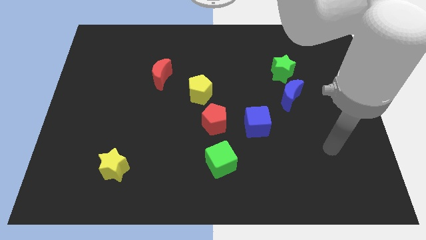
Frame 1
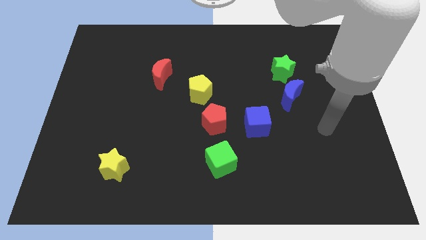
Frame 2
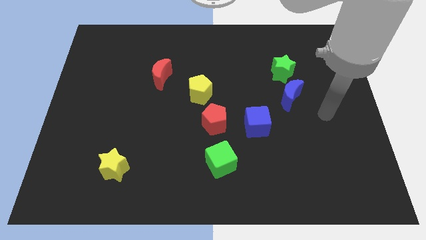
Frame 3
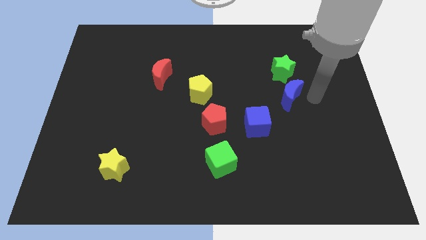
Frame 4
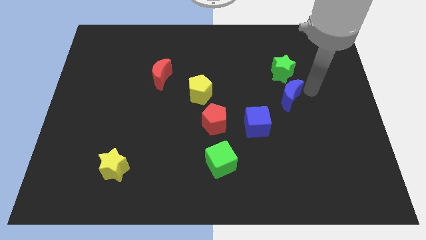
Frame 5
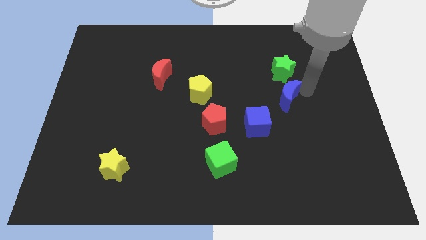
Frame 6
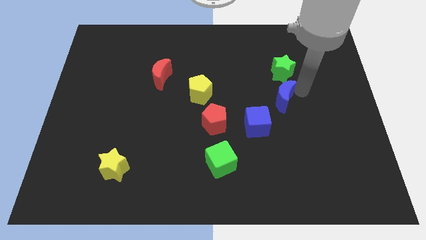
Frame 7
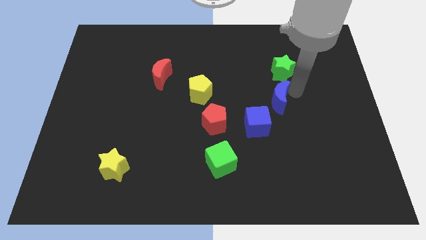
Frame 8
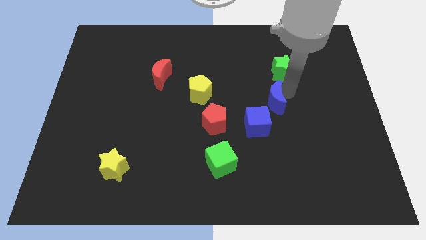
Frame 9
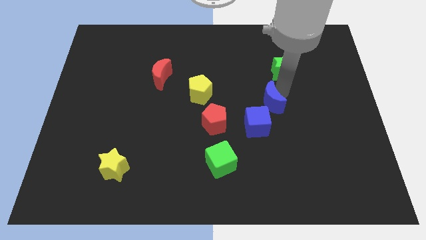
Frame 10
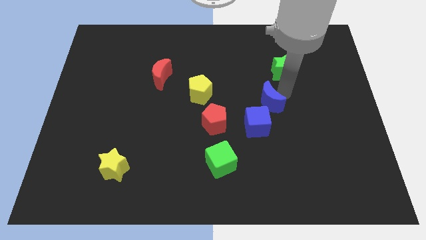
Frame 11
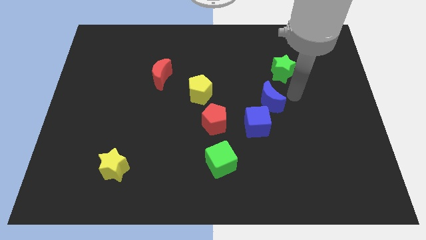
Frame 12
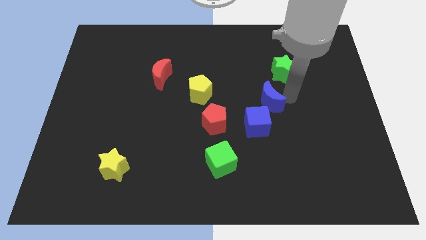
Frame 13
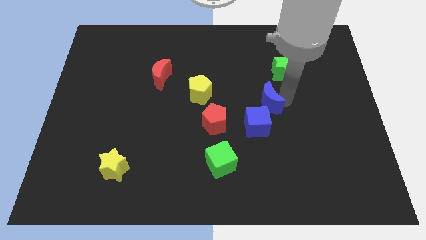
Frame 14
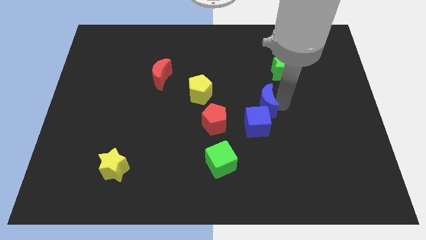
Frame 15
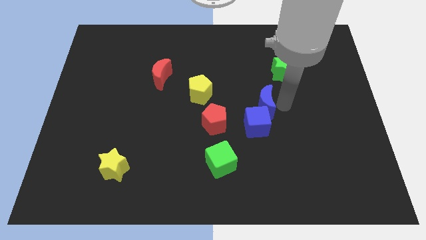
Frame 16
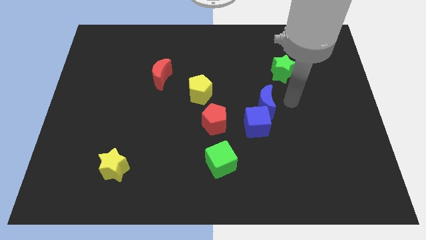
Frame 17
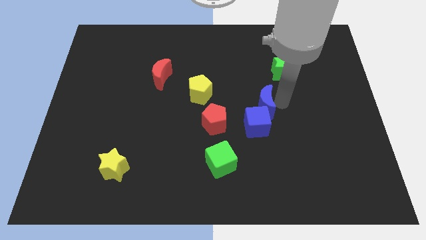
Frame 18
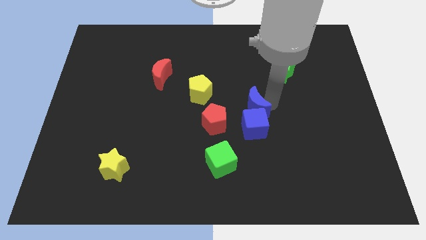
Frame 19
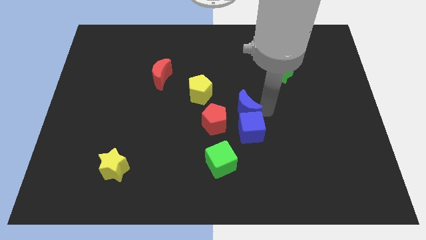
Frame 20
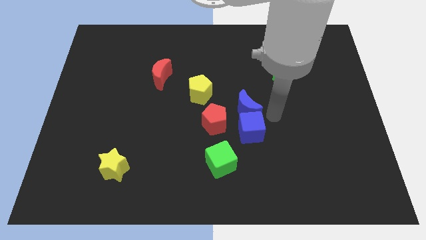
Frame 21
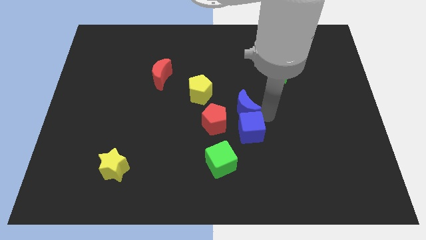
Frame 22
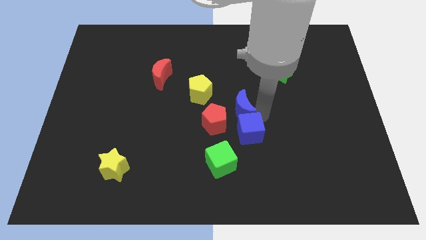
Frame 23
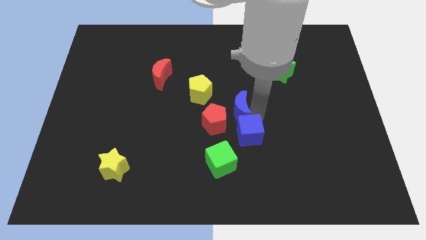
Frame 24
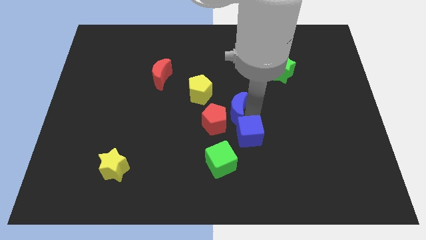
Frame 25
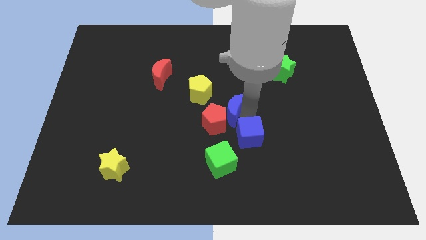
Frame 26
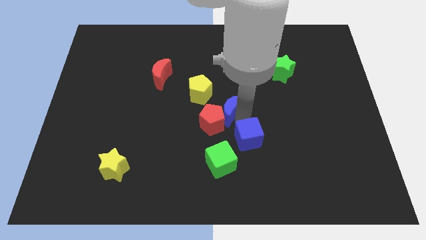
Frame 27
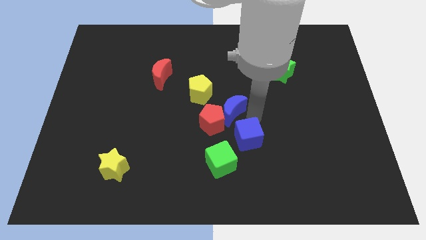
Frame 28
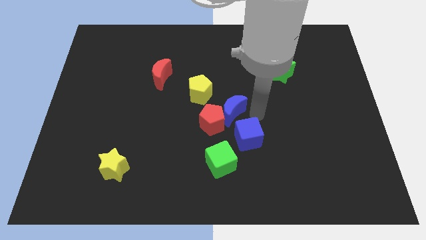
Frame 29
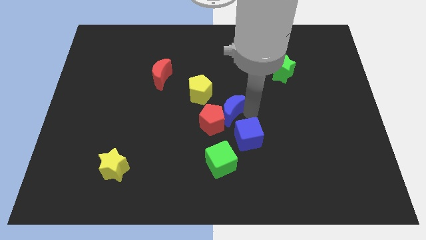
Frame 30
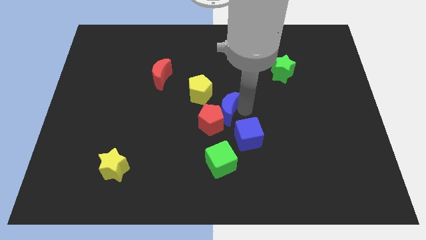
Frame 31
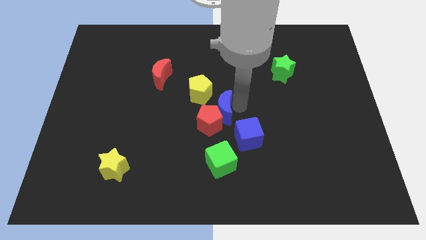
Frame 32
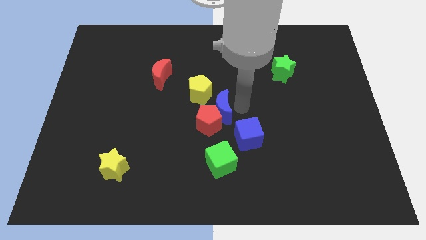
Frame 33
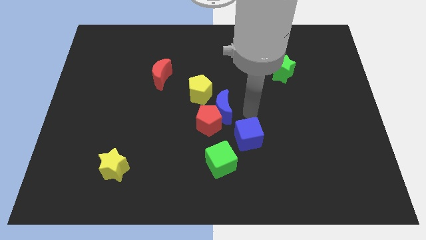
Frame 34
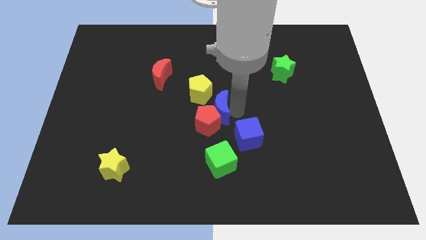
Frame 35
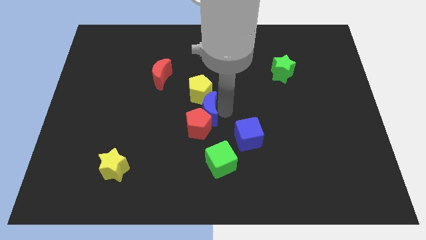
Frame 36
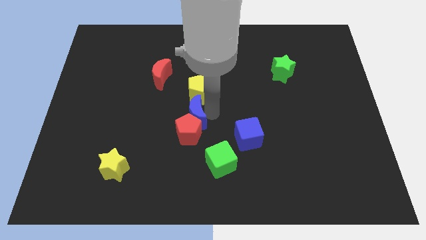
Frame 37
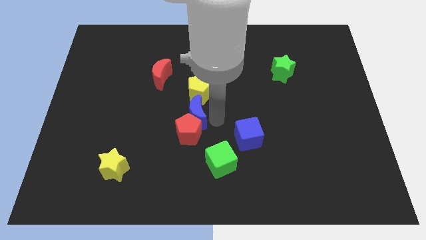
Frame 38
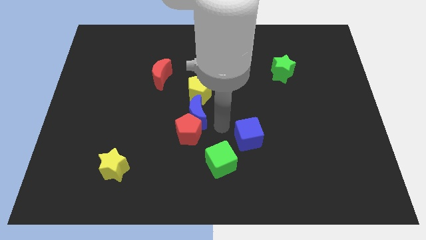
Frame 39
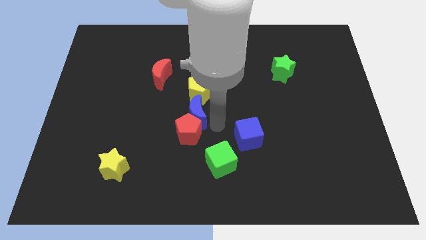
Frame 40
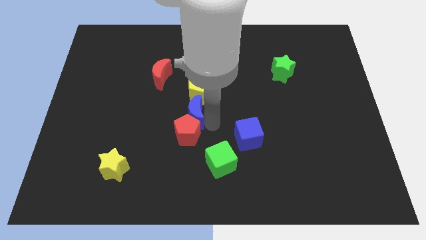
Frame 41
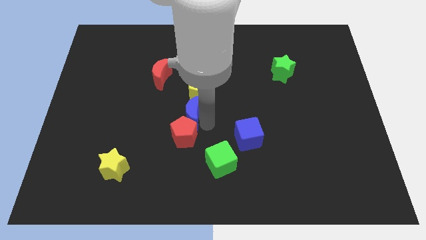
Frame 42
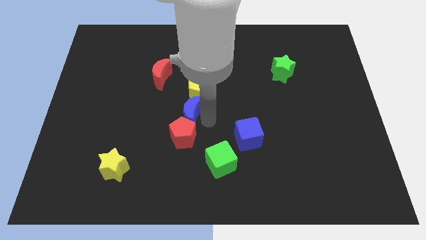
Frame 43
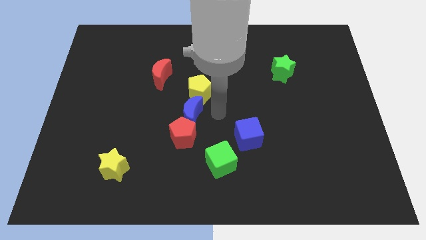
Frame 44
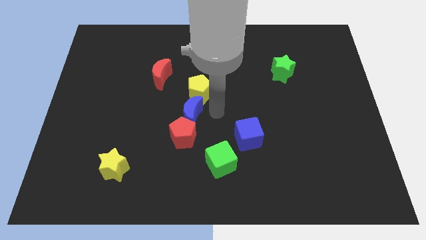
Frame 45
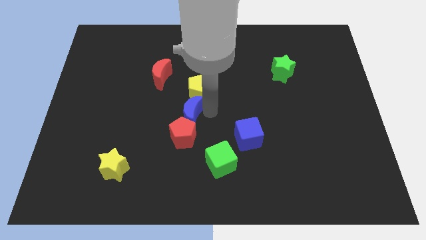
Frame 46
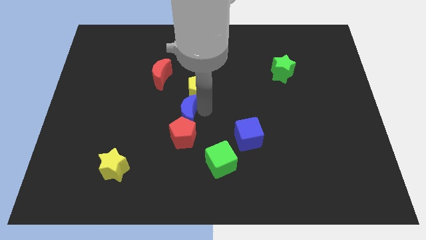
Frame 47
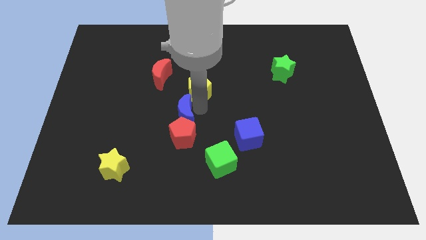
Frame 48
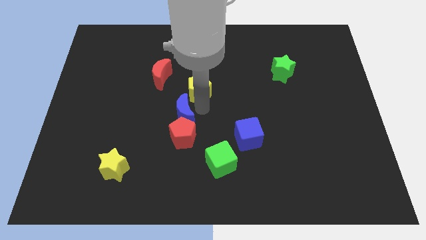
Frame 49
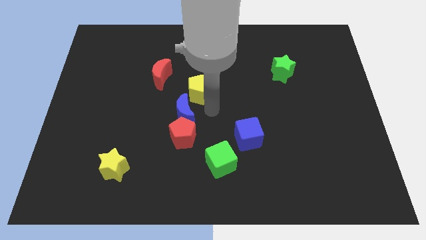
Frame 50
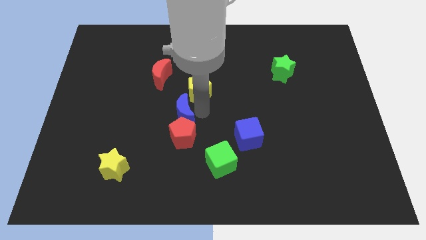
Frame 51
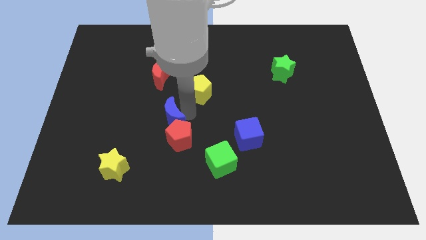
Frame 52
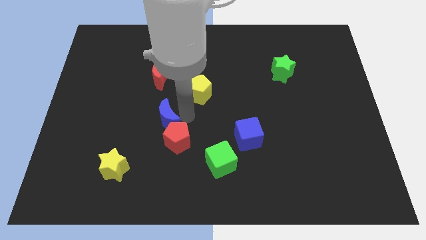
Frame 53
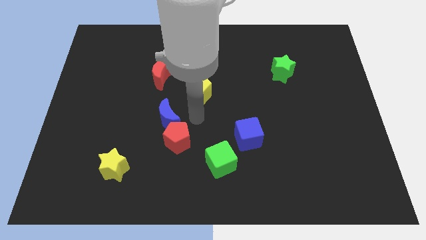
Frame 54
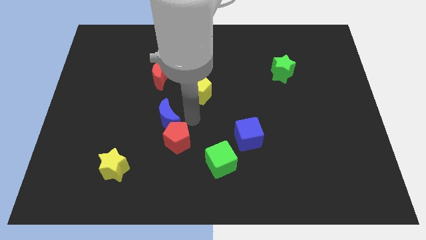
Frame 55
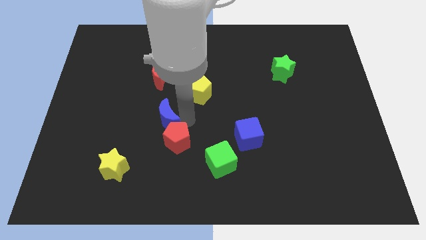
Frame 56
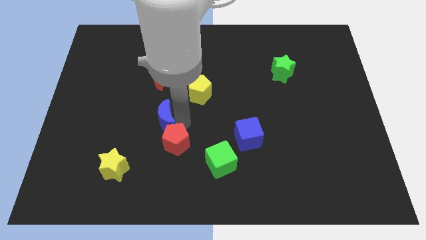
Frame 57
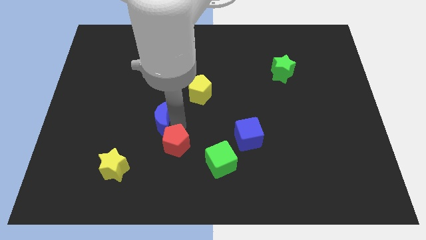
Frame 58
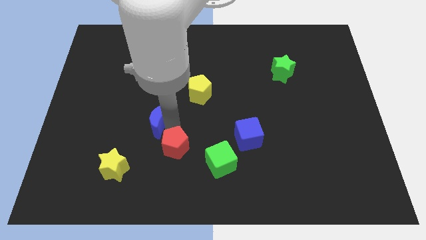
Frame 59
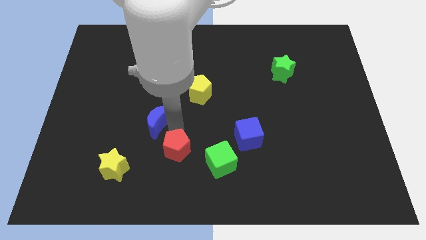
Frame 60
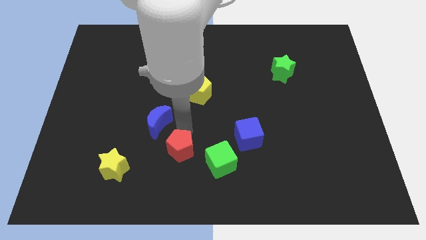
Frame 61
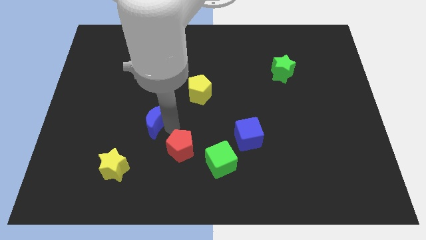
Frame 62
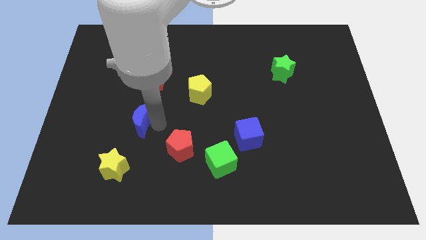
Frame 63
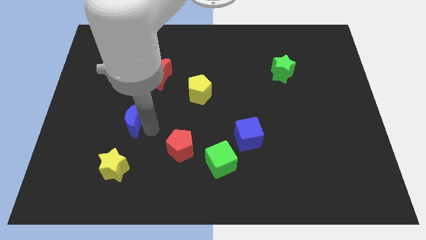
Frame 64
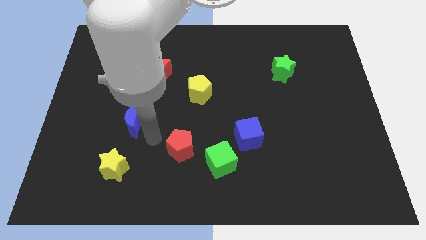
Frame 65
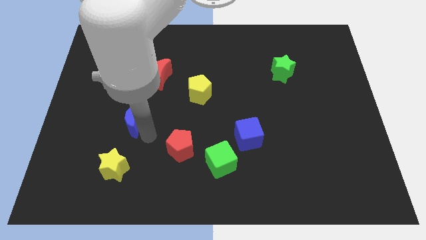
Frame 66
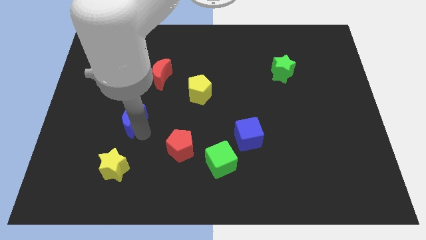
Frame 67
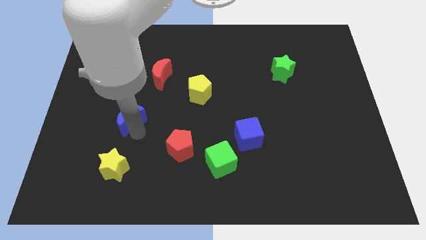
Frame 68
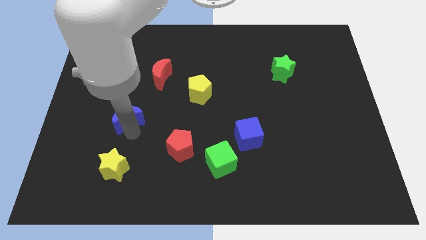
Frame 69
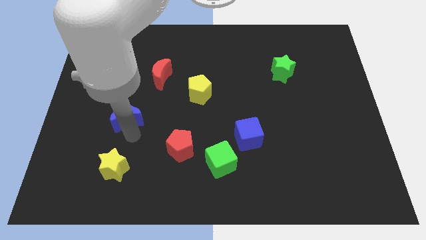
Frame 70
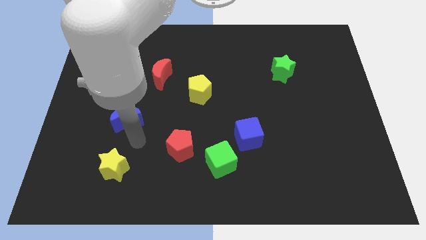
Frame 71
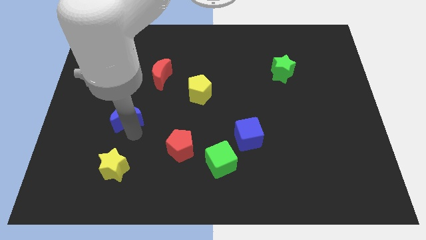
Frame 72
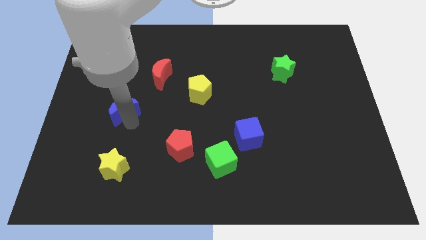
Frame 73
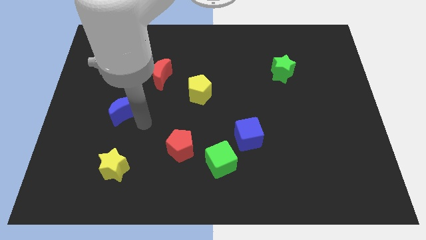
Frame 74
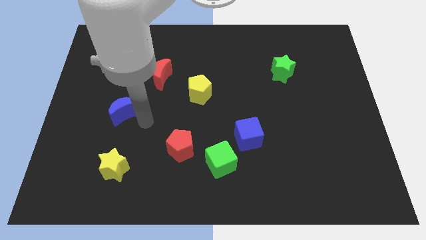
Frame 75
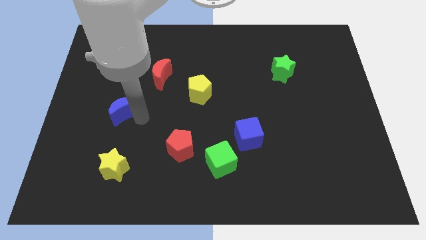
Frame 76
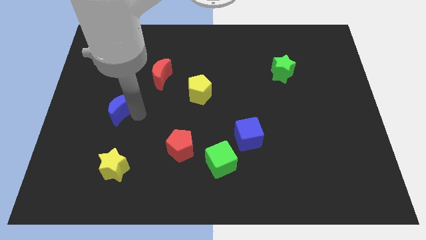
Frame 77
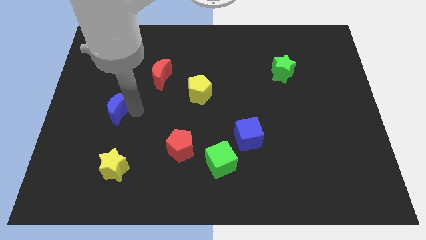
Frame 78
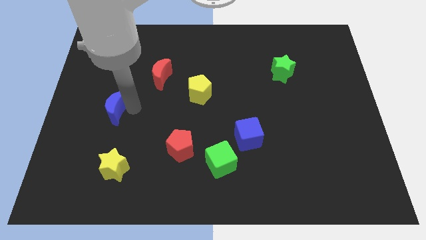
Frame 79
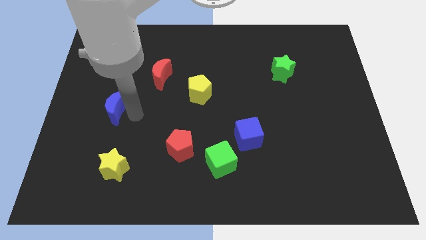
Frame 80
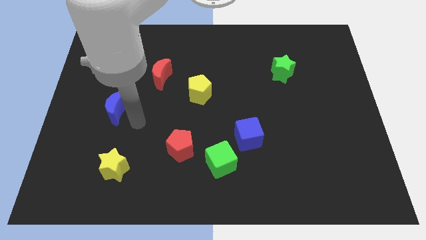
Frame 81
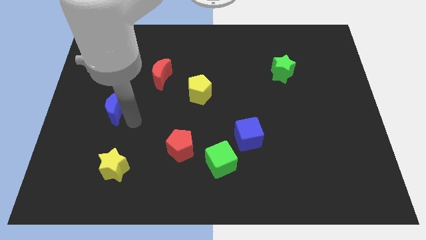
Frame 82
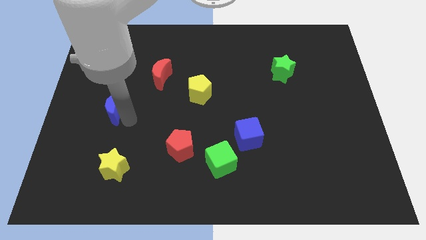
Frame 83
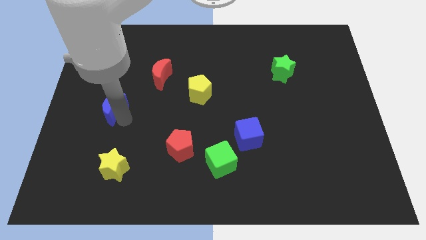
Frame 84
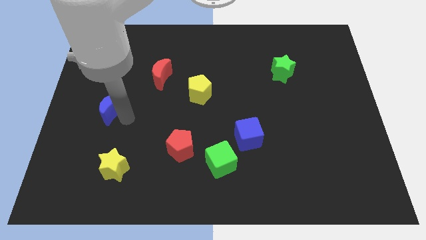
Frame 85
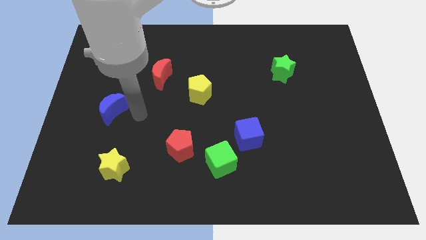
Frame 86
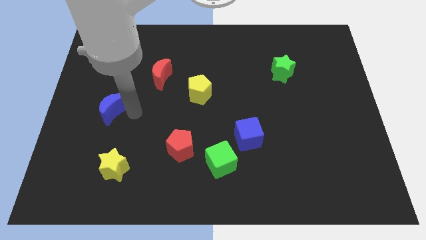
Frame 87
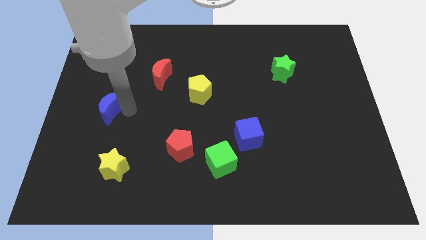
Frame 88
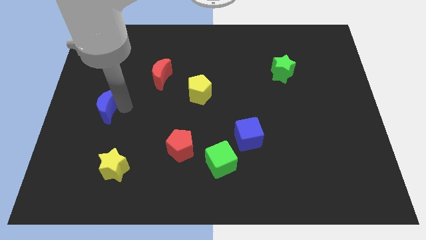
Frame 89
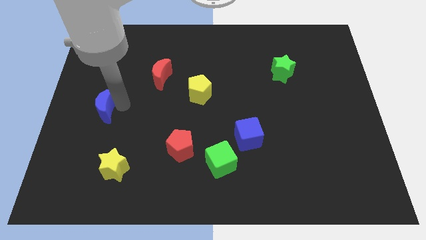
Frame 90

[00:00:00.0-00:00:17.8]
move the blue moon to the left side of the board
